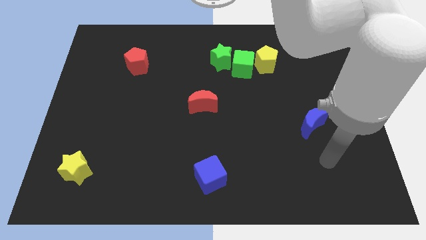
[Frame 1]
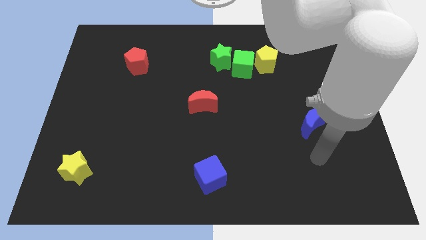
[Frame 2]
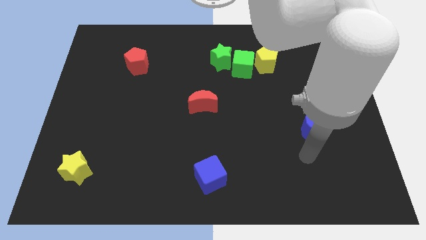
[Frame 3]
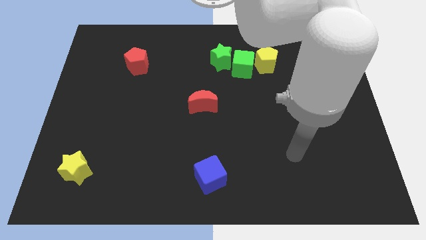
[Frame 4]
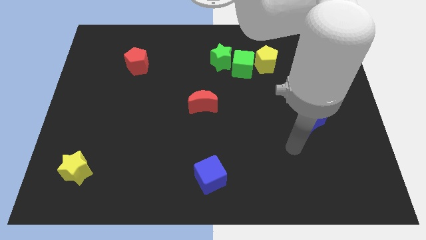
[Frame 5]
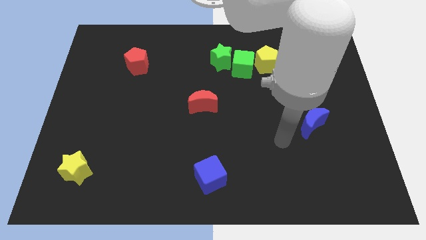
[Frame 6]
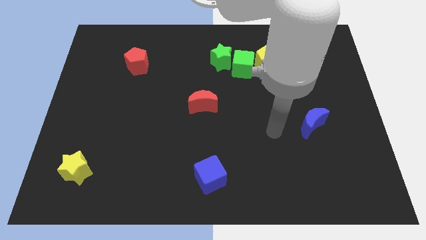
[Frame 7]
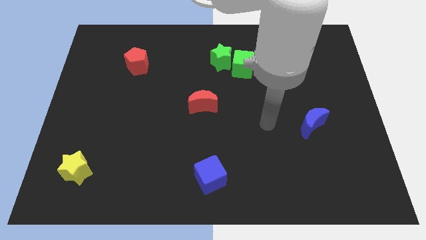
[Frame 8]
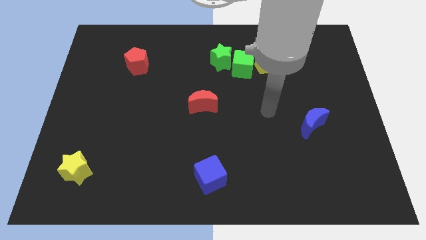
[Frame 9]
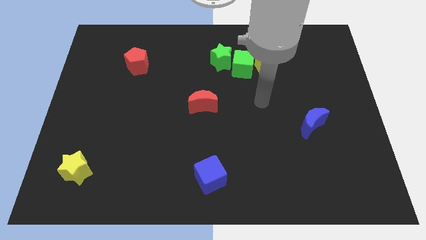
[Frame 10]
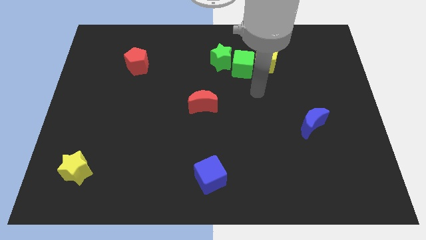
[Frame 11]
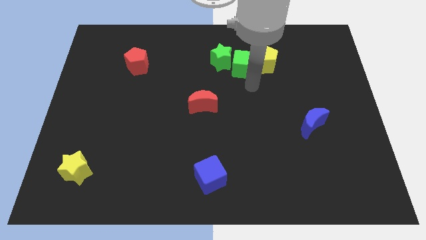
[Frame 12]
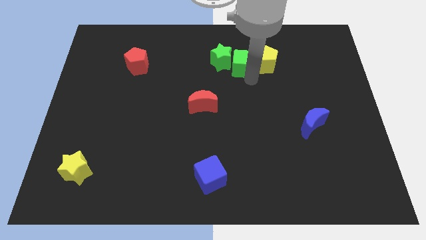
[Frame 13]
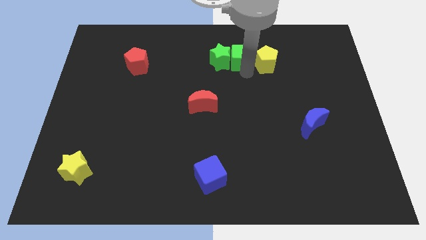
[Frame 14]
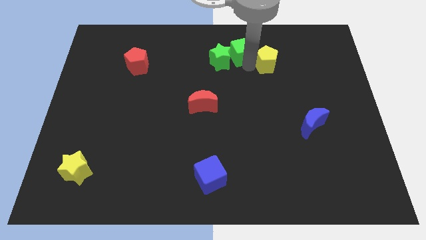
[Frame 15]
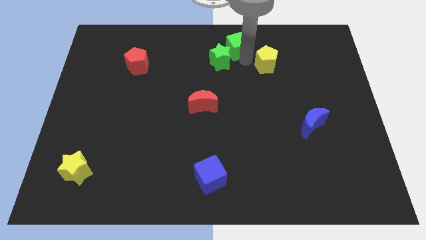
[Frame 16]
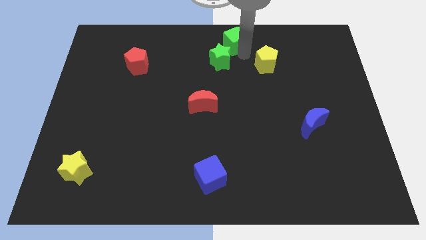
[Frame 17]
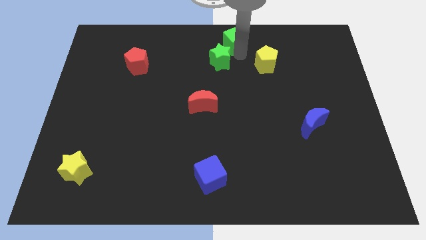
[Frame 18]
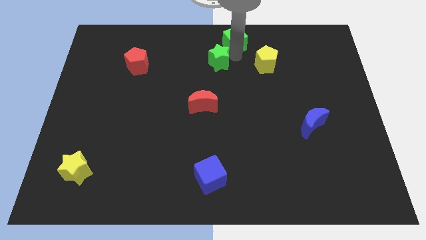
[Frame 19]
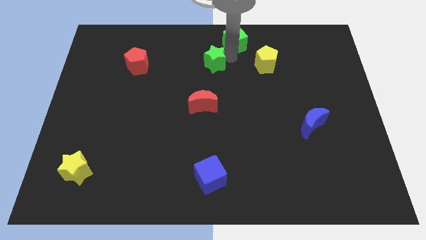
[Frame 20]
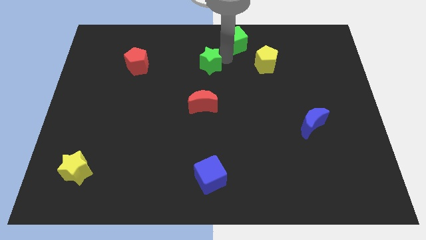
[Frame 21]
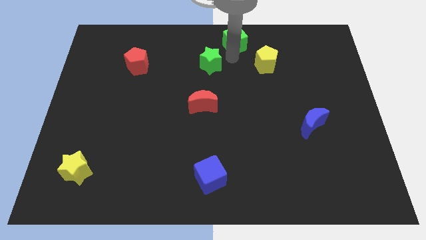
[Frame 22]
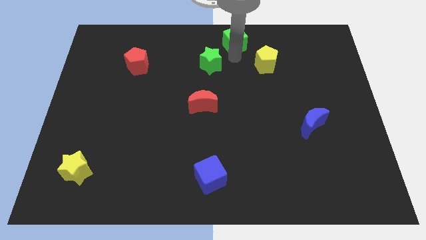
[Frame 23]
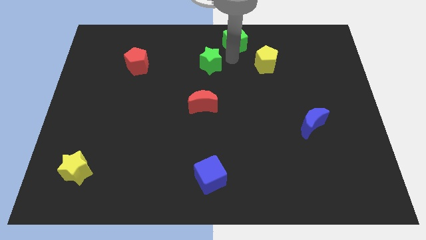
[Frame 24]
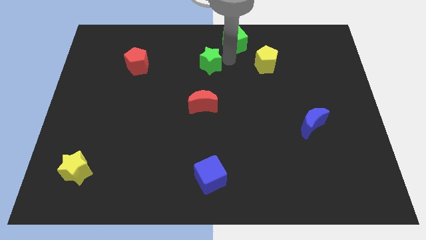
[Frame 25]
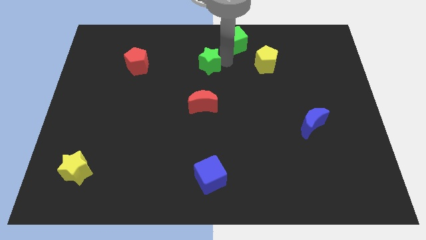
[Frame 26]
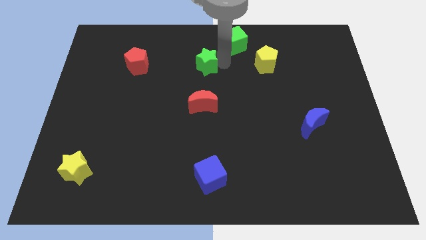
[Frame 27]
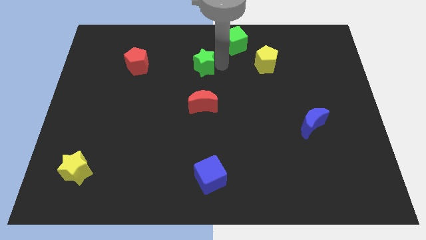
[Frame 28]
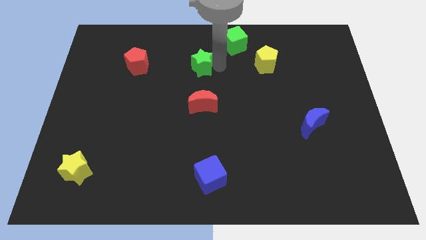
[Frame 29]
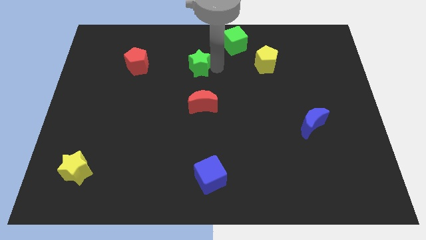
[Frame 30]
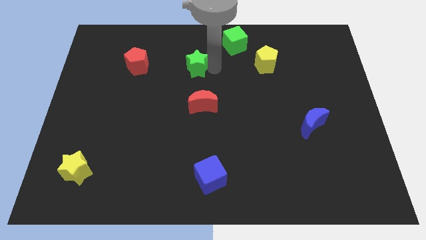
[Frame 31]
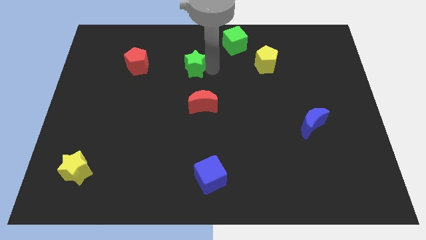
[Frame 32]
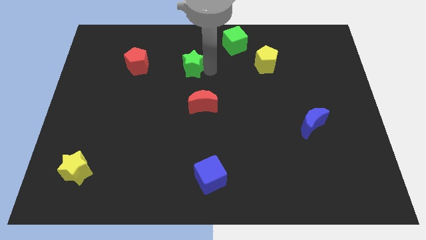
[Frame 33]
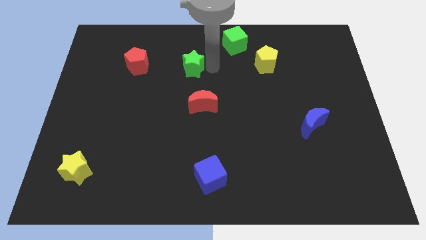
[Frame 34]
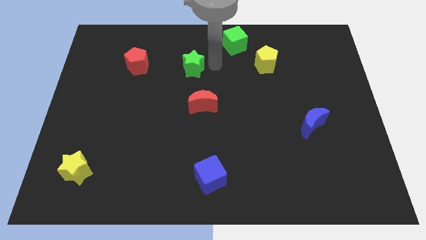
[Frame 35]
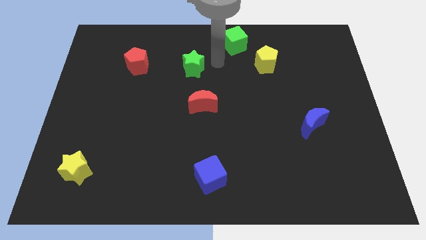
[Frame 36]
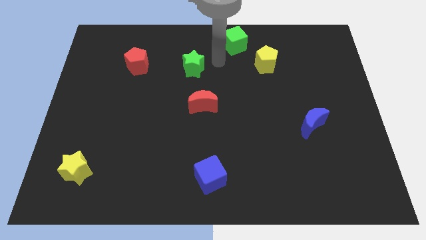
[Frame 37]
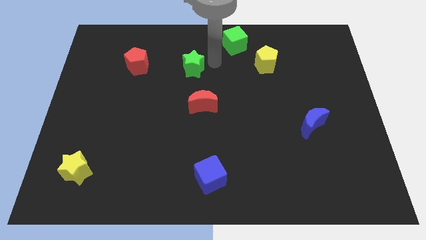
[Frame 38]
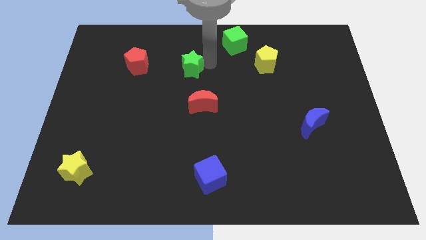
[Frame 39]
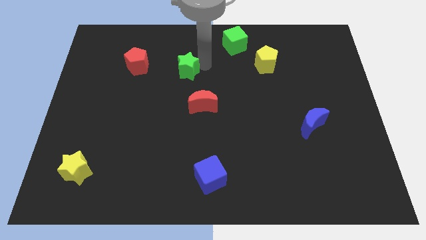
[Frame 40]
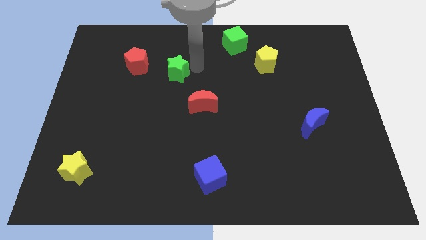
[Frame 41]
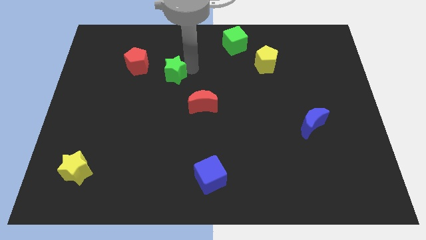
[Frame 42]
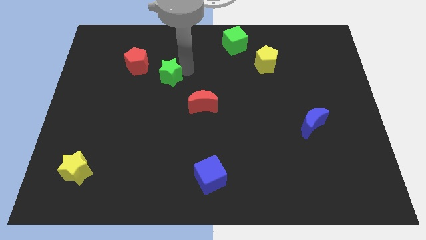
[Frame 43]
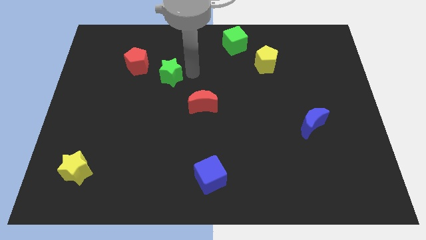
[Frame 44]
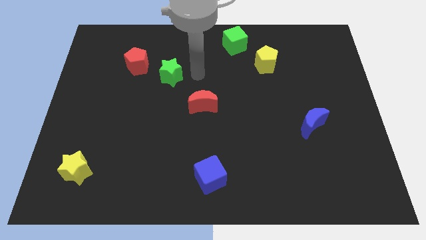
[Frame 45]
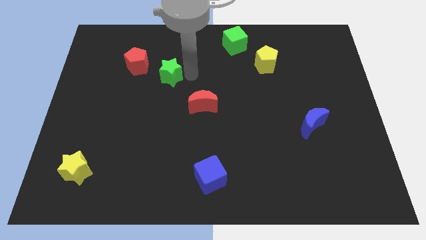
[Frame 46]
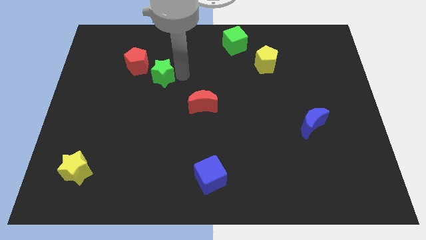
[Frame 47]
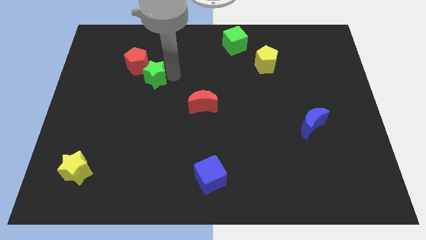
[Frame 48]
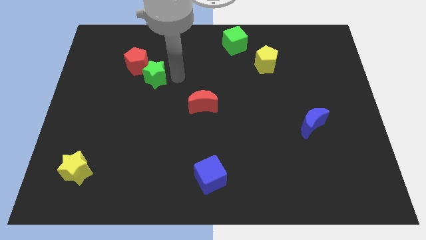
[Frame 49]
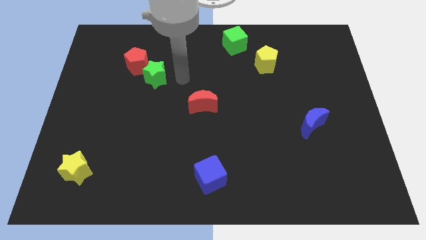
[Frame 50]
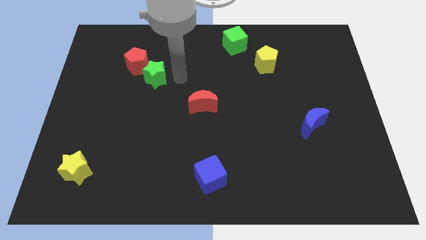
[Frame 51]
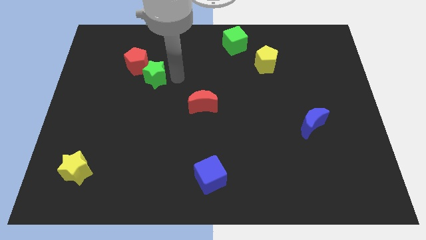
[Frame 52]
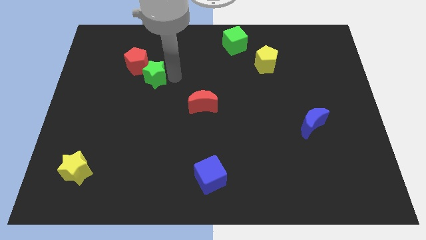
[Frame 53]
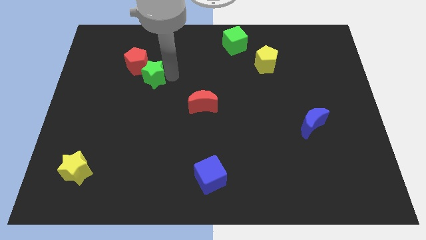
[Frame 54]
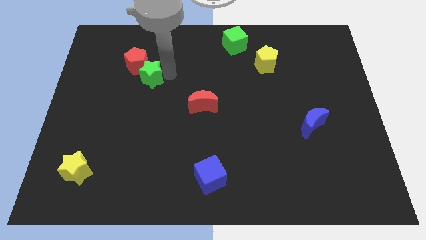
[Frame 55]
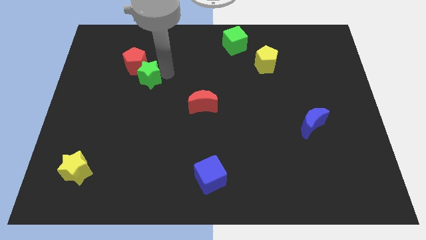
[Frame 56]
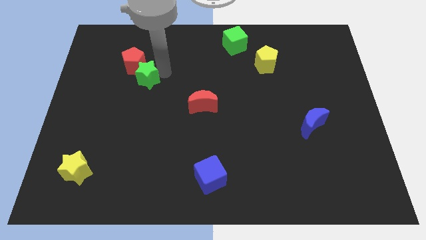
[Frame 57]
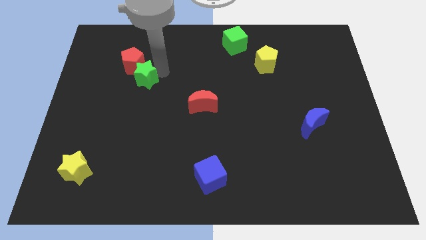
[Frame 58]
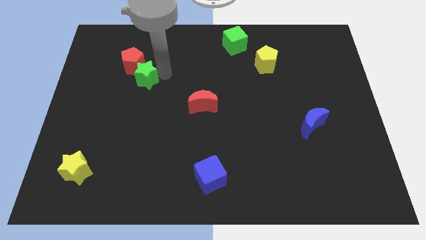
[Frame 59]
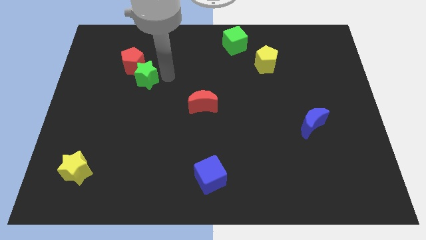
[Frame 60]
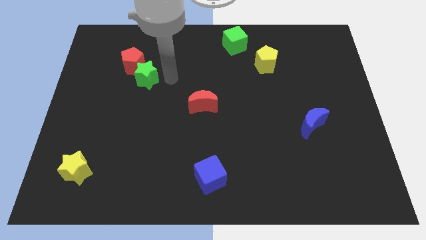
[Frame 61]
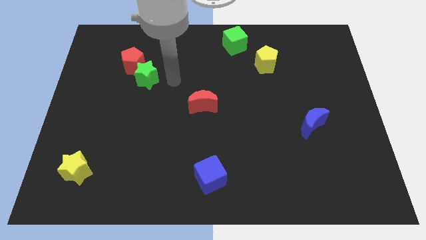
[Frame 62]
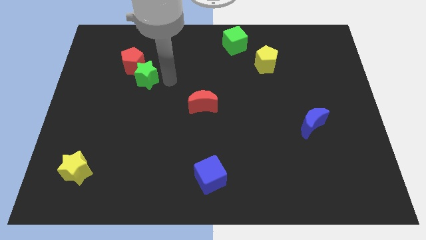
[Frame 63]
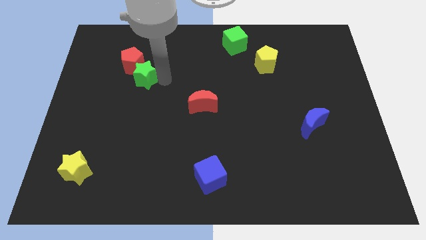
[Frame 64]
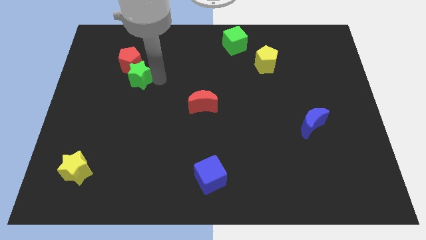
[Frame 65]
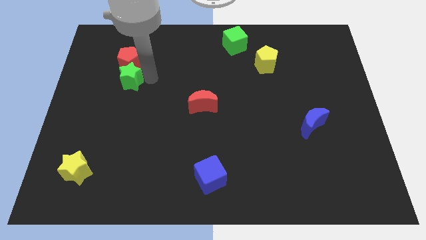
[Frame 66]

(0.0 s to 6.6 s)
slide the green star diagonally down and to the left of the red pentagon

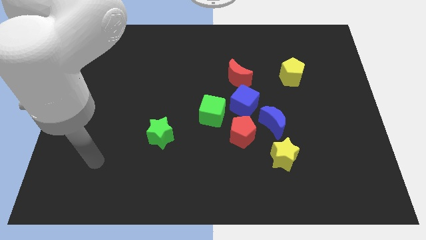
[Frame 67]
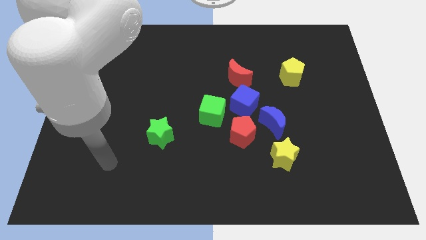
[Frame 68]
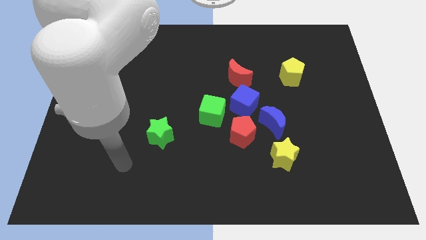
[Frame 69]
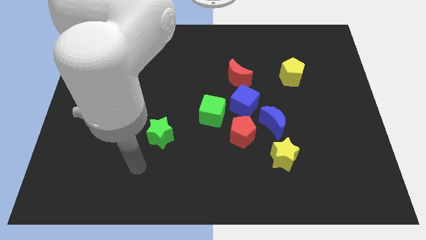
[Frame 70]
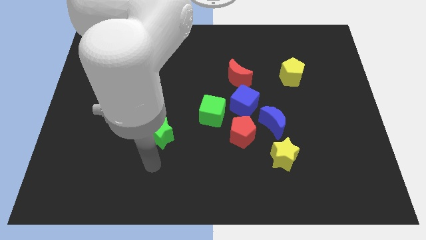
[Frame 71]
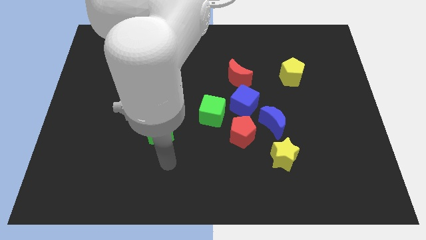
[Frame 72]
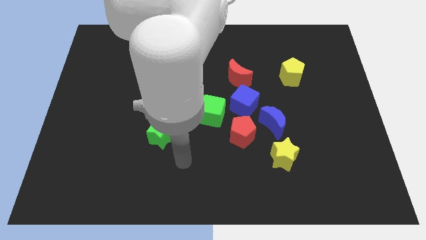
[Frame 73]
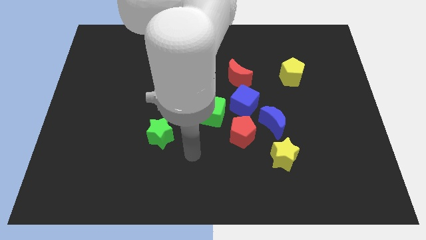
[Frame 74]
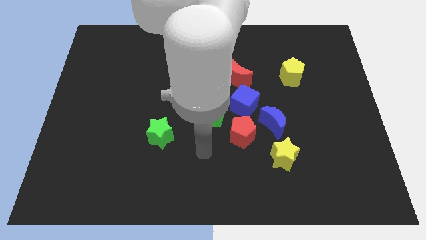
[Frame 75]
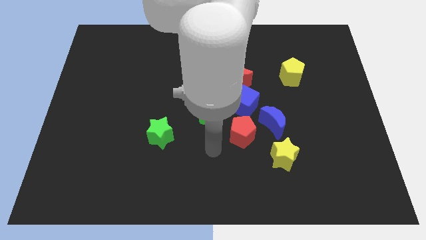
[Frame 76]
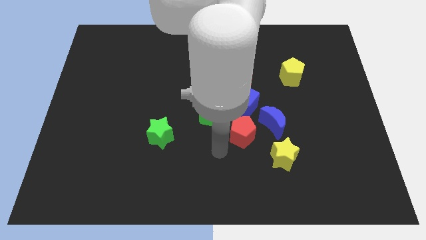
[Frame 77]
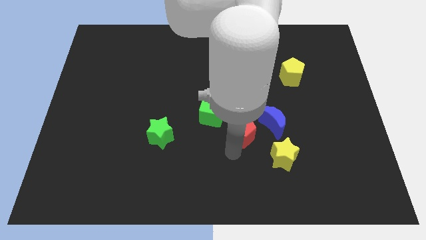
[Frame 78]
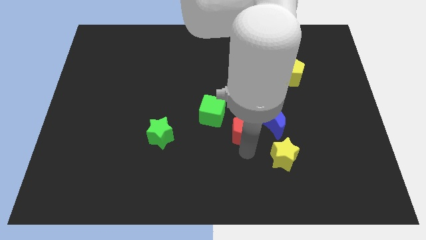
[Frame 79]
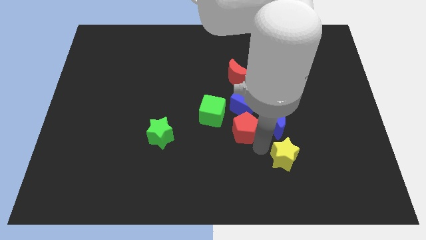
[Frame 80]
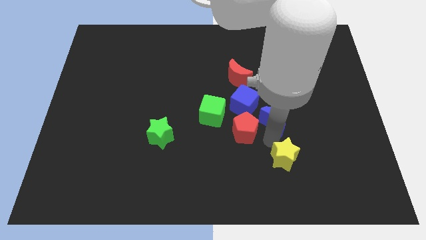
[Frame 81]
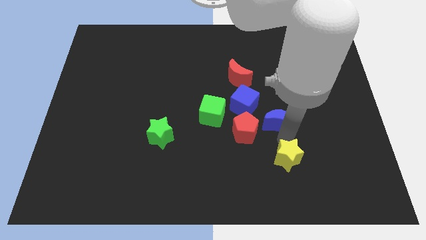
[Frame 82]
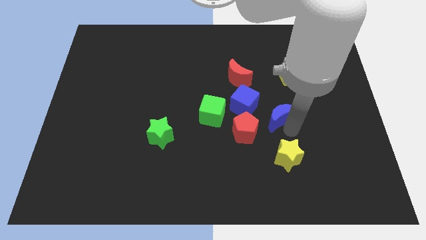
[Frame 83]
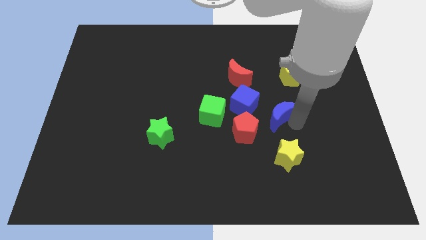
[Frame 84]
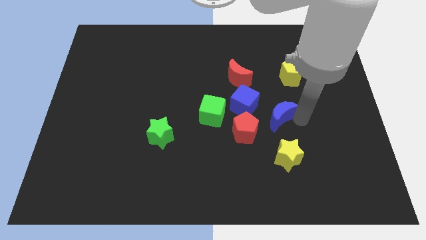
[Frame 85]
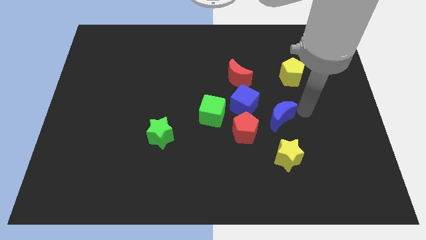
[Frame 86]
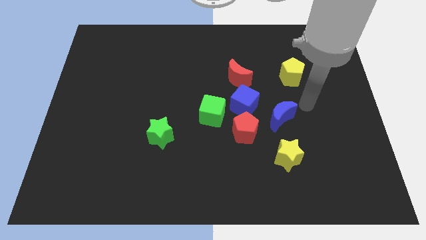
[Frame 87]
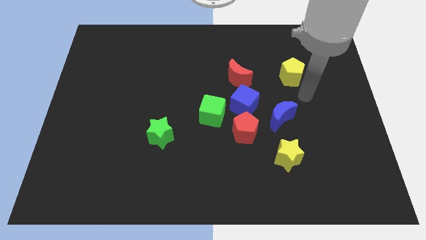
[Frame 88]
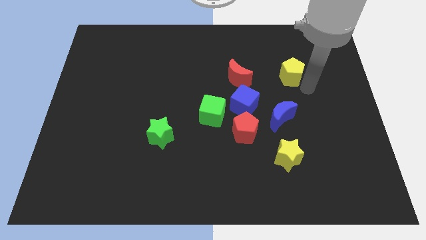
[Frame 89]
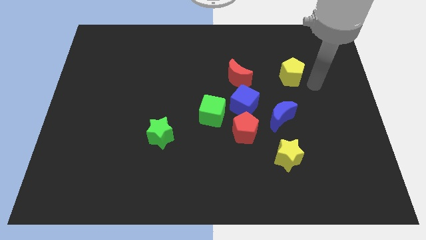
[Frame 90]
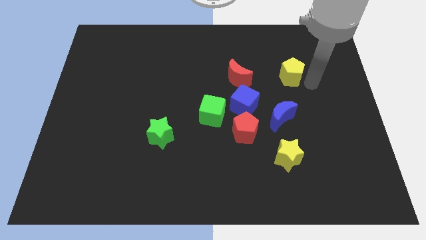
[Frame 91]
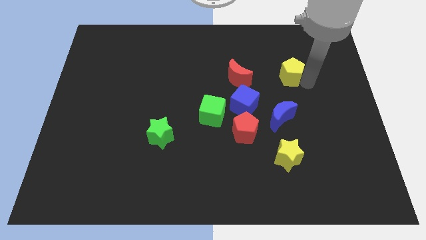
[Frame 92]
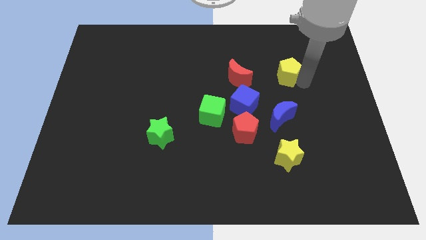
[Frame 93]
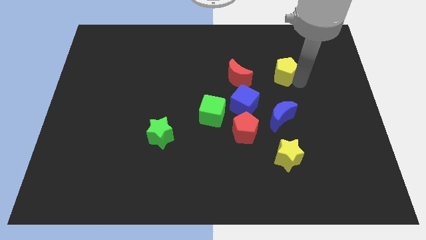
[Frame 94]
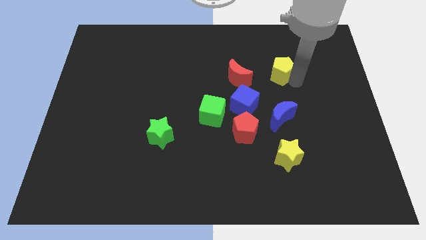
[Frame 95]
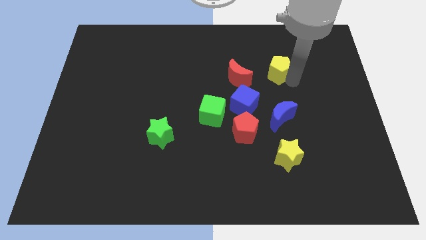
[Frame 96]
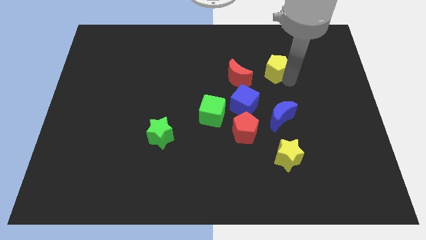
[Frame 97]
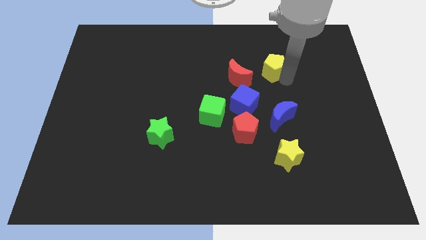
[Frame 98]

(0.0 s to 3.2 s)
put the yellow pentagon to the top right side of the red moon
